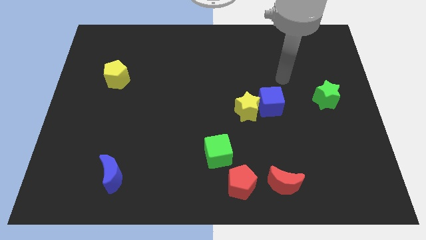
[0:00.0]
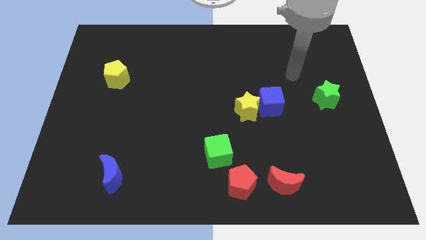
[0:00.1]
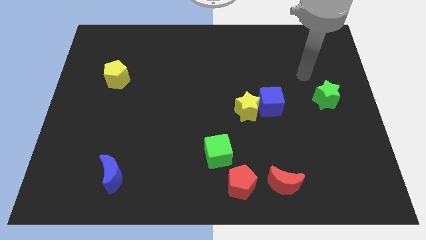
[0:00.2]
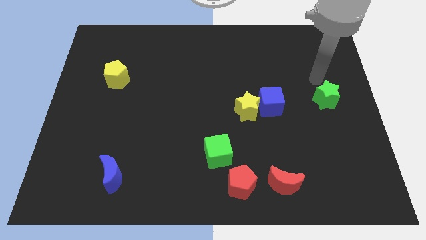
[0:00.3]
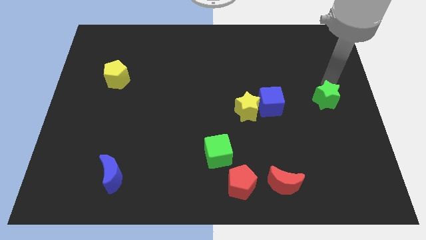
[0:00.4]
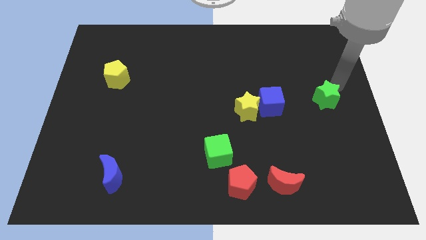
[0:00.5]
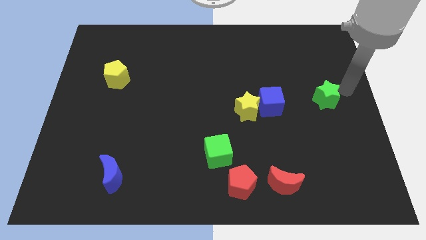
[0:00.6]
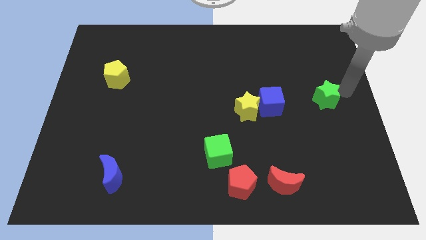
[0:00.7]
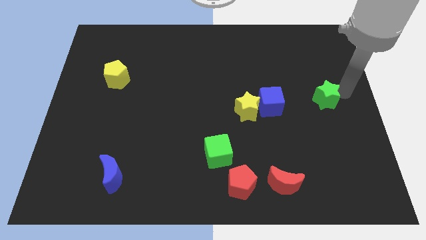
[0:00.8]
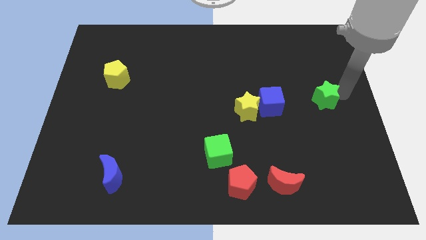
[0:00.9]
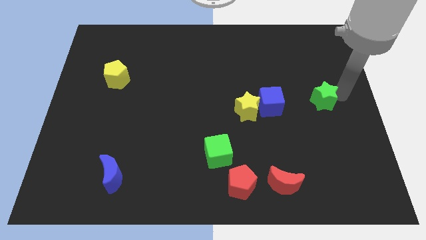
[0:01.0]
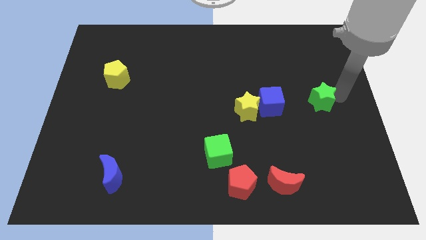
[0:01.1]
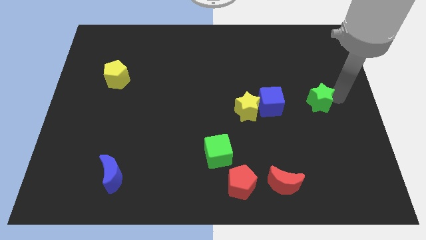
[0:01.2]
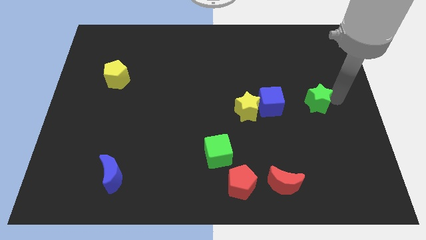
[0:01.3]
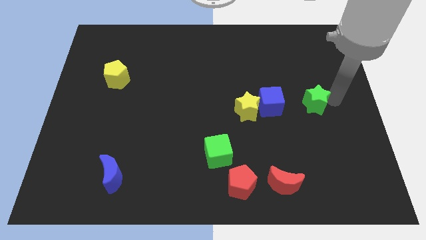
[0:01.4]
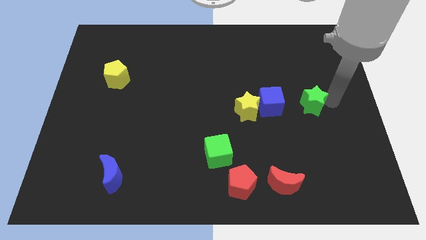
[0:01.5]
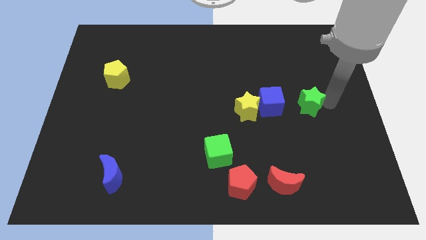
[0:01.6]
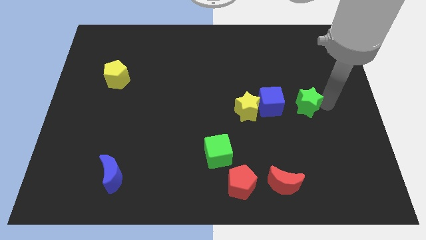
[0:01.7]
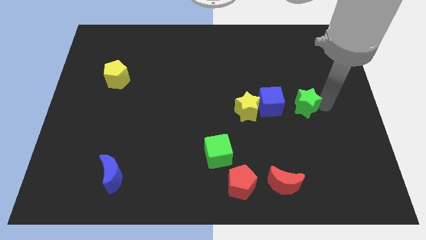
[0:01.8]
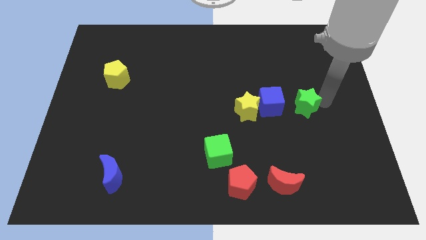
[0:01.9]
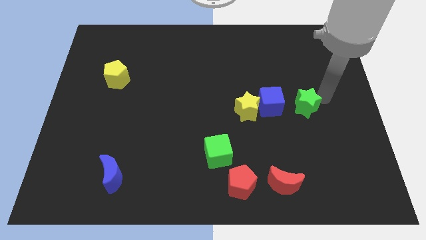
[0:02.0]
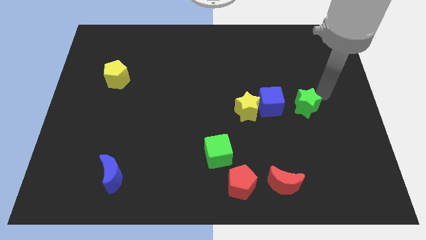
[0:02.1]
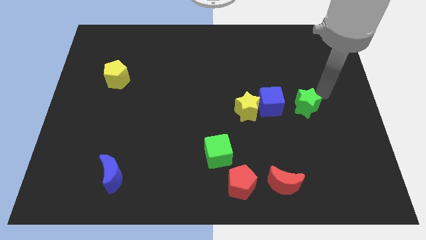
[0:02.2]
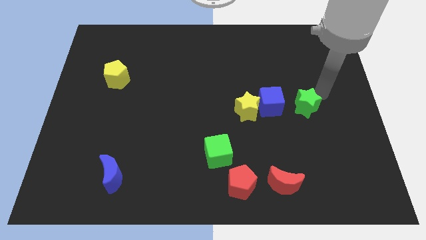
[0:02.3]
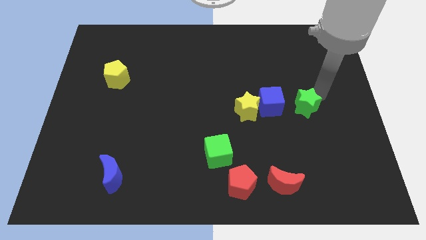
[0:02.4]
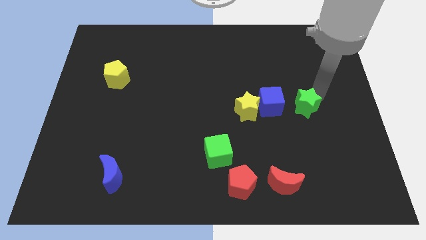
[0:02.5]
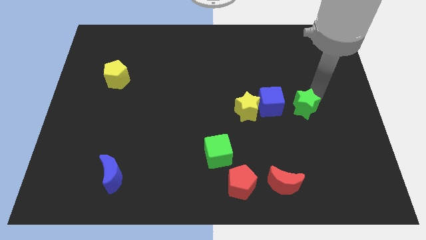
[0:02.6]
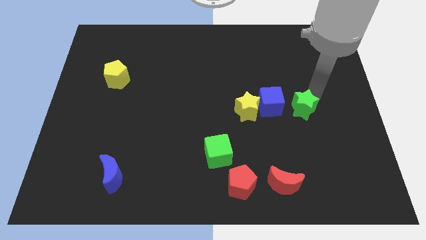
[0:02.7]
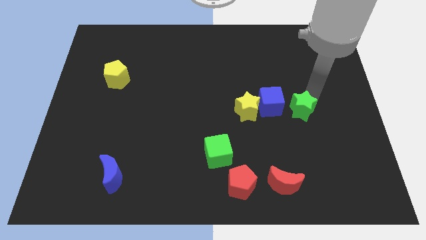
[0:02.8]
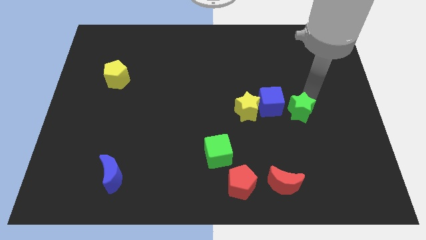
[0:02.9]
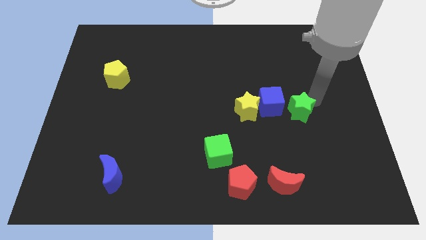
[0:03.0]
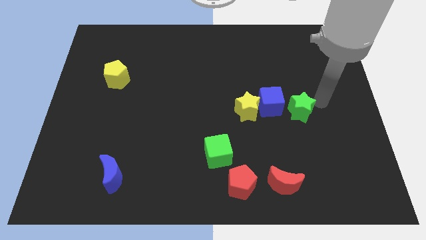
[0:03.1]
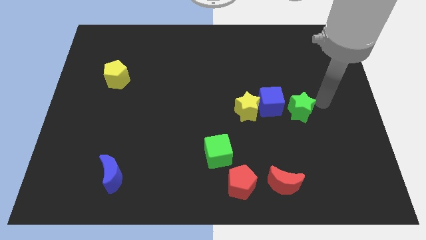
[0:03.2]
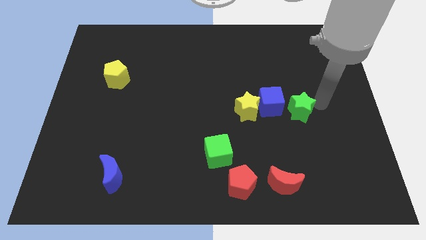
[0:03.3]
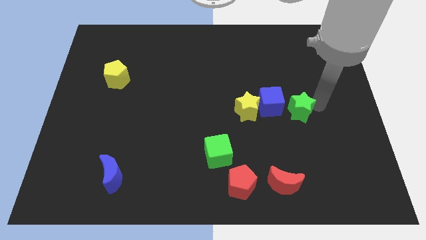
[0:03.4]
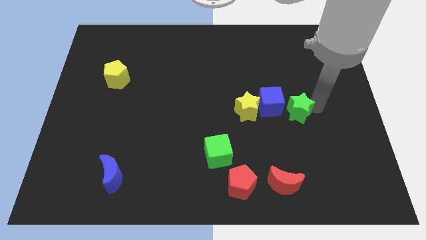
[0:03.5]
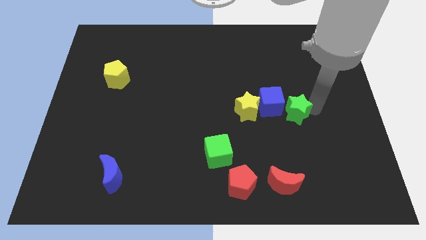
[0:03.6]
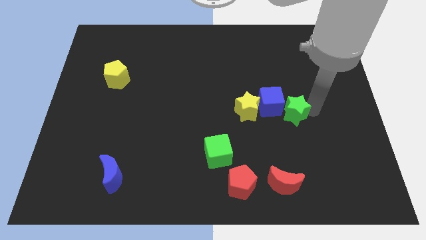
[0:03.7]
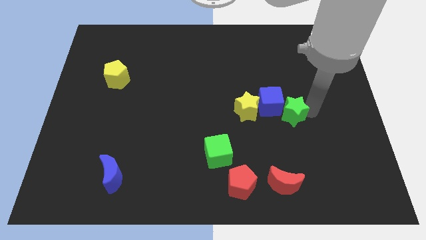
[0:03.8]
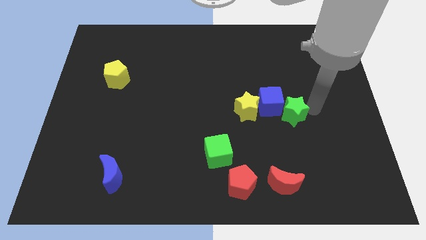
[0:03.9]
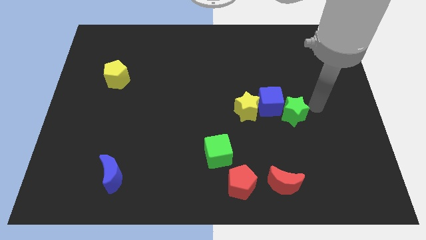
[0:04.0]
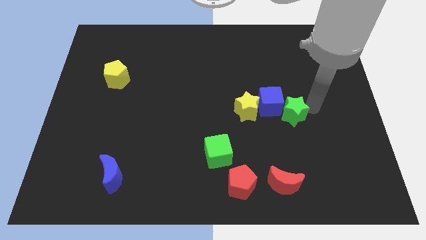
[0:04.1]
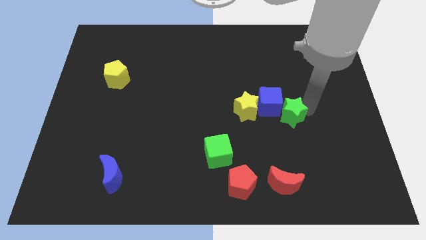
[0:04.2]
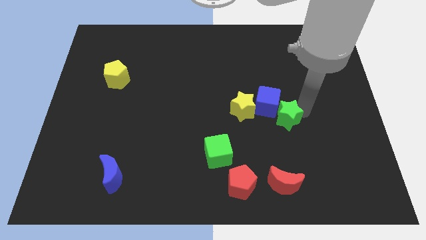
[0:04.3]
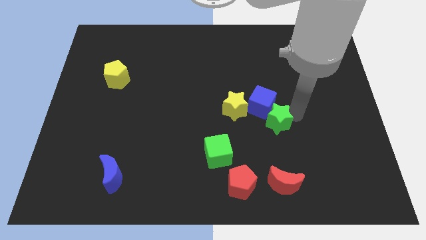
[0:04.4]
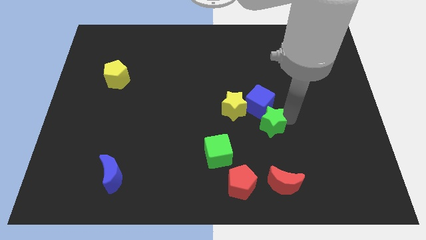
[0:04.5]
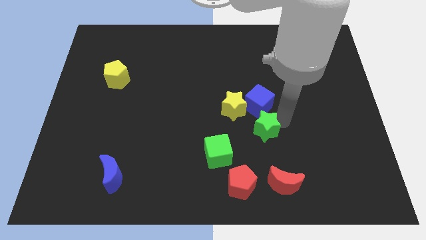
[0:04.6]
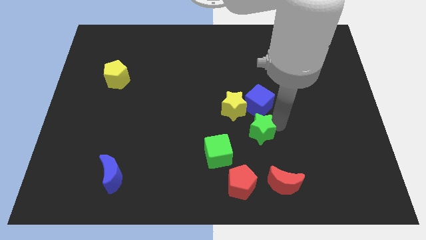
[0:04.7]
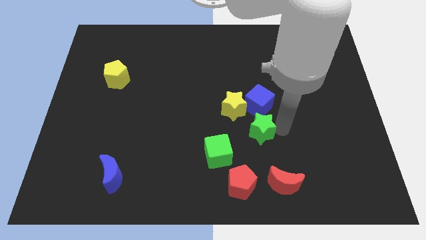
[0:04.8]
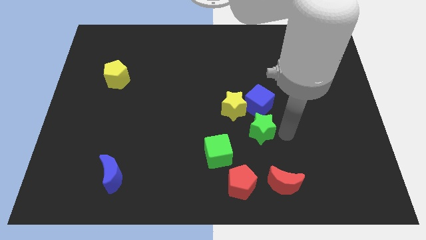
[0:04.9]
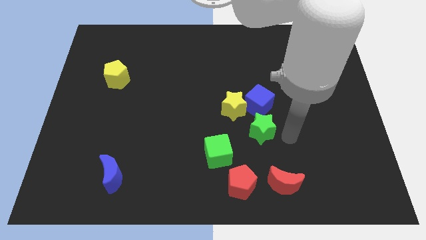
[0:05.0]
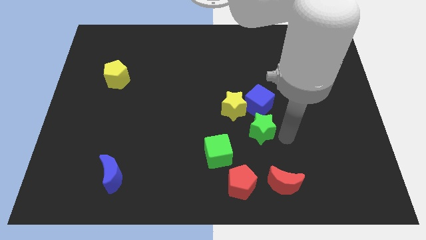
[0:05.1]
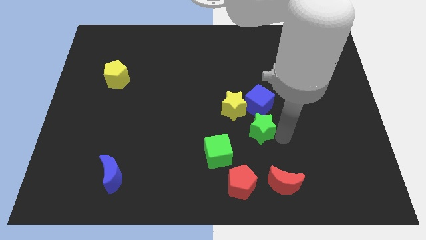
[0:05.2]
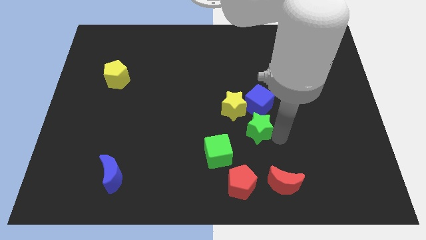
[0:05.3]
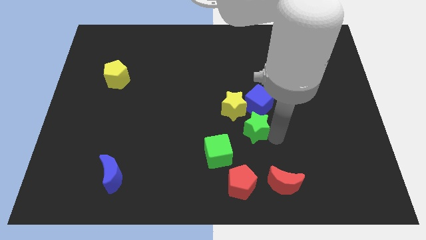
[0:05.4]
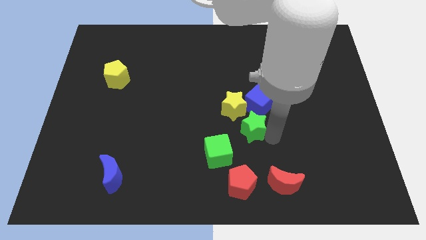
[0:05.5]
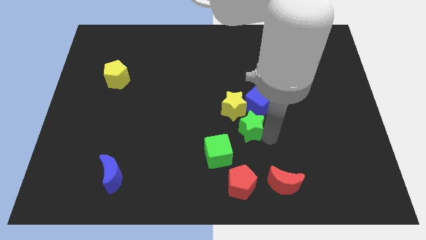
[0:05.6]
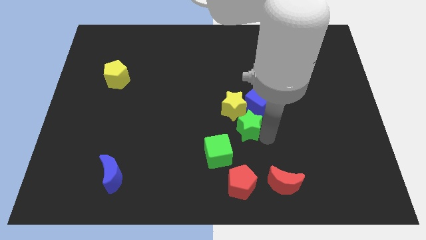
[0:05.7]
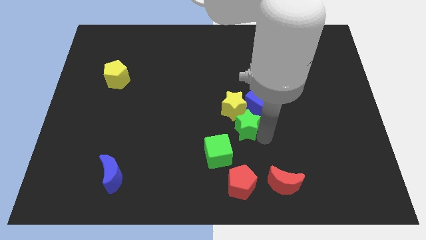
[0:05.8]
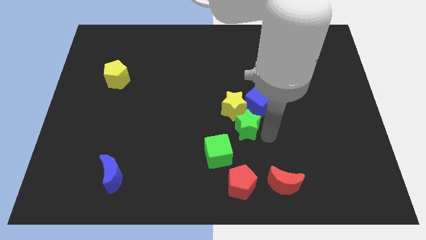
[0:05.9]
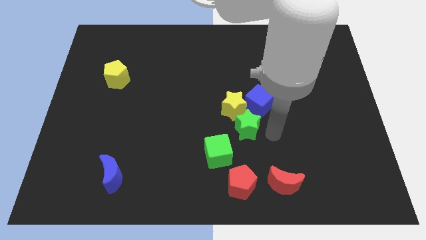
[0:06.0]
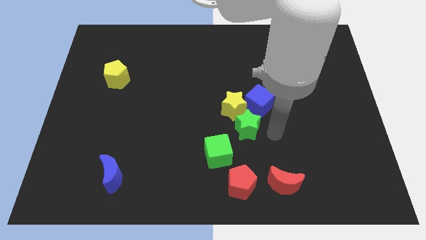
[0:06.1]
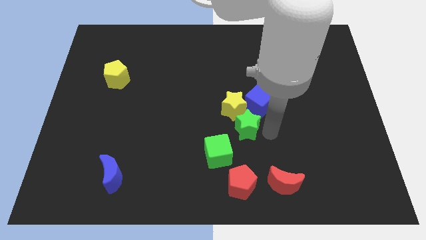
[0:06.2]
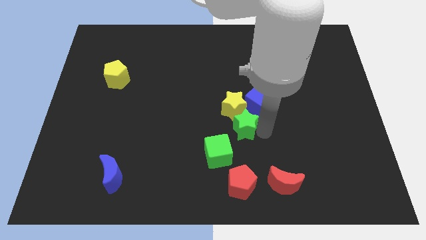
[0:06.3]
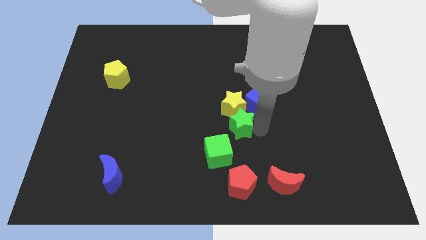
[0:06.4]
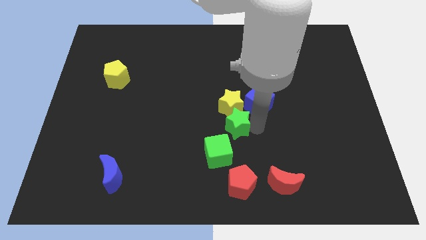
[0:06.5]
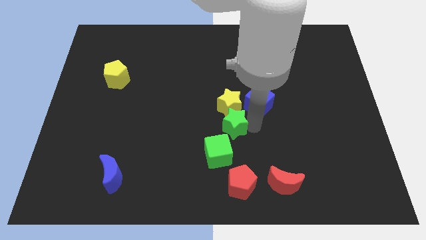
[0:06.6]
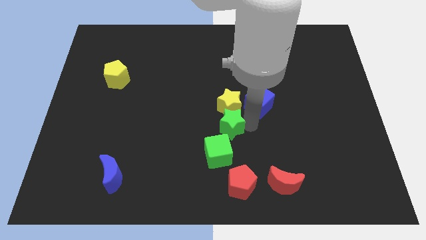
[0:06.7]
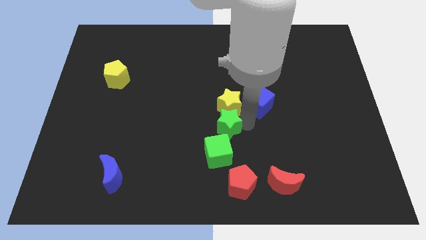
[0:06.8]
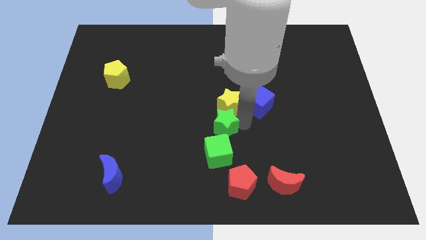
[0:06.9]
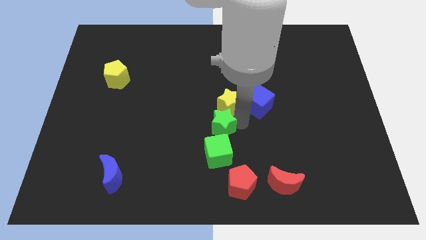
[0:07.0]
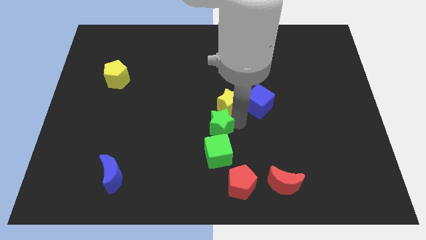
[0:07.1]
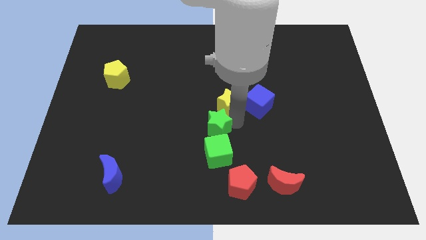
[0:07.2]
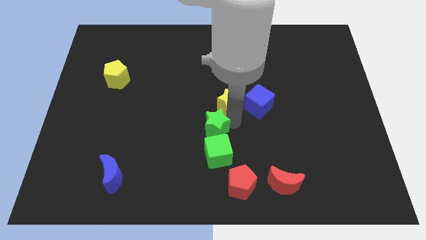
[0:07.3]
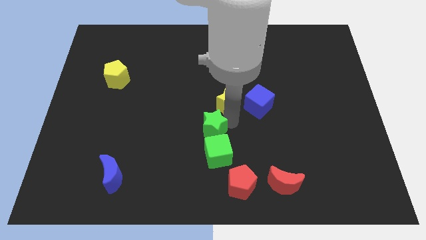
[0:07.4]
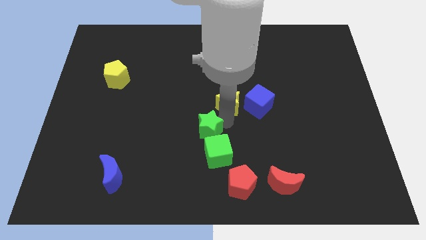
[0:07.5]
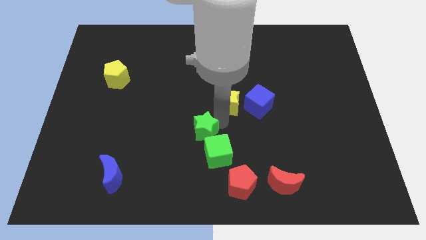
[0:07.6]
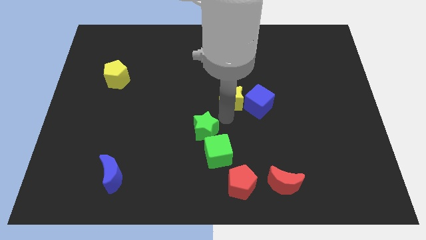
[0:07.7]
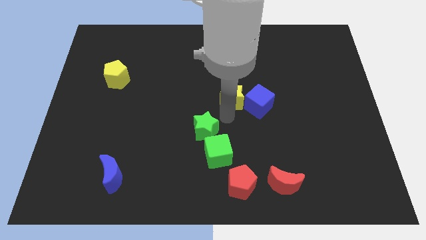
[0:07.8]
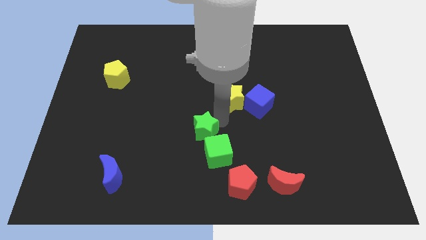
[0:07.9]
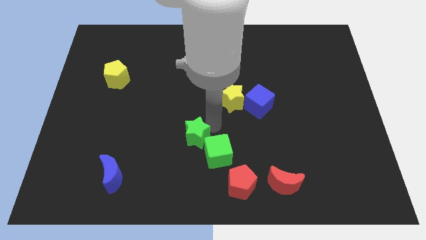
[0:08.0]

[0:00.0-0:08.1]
move the green star to the left of the green cube
